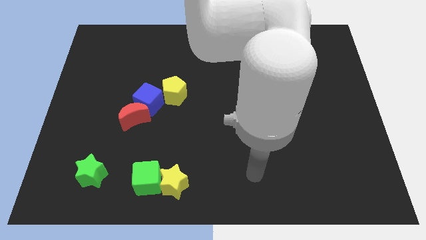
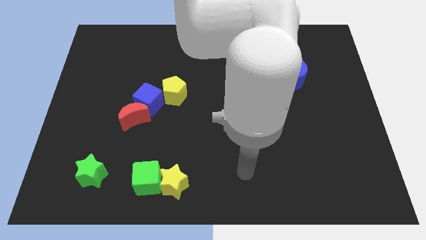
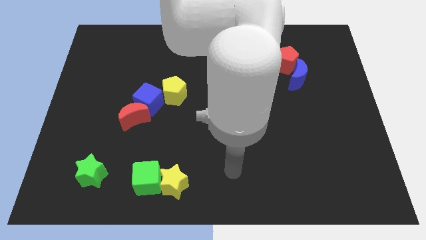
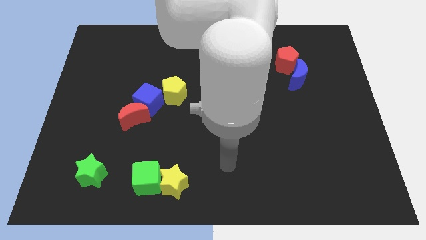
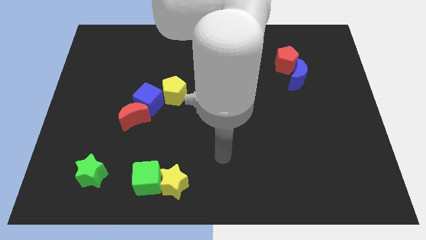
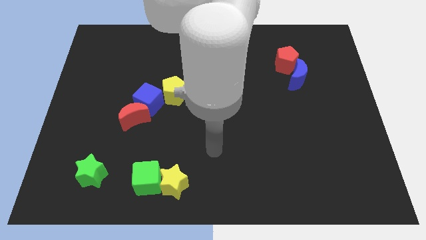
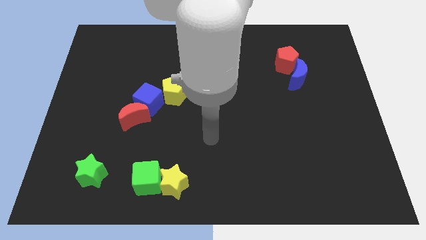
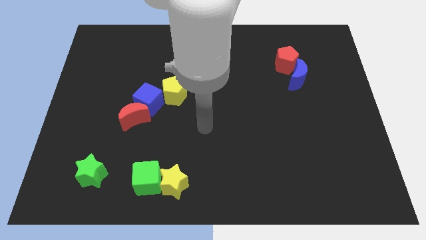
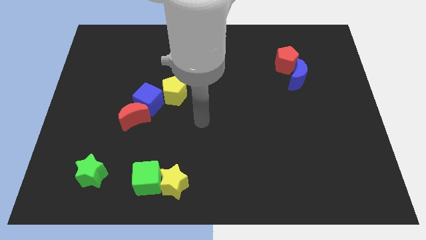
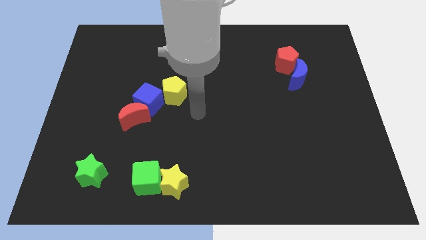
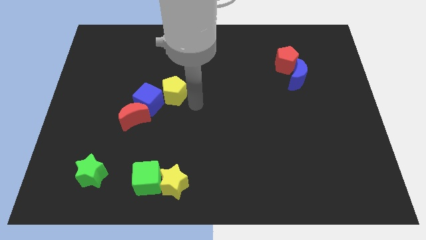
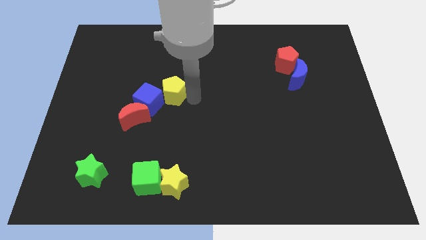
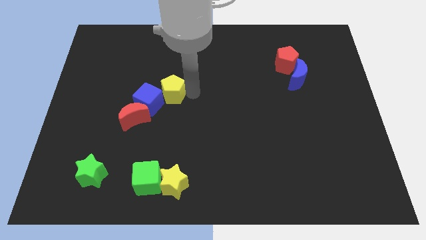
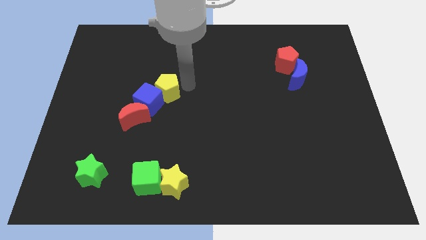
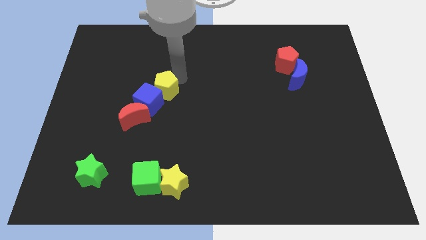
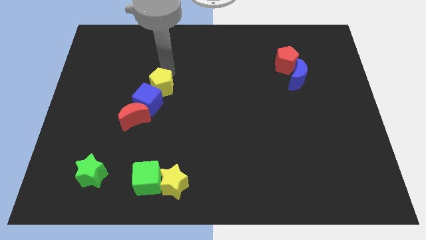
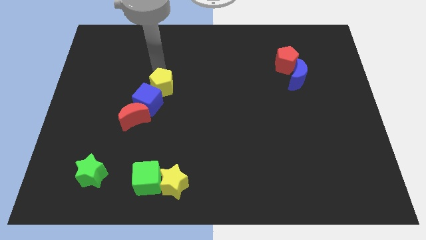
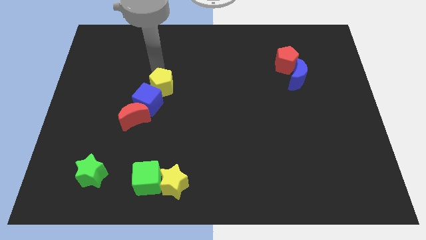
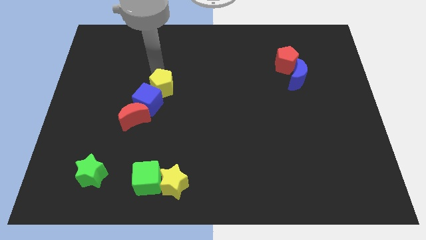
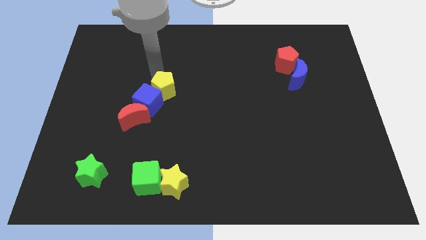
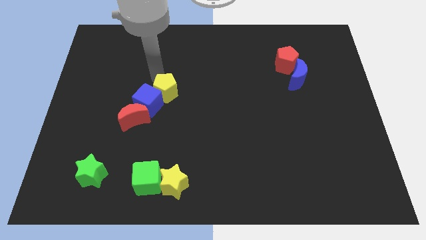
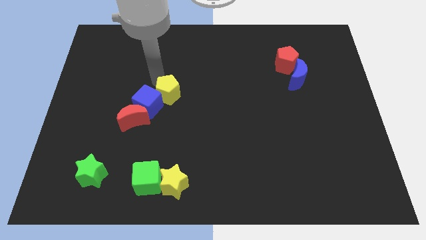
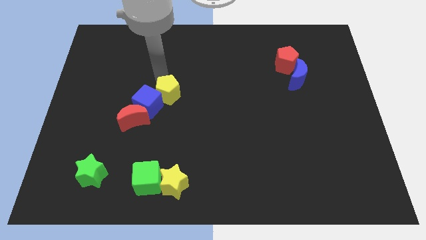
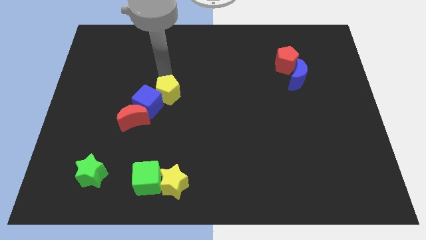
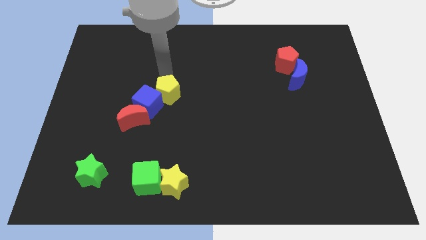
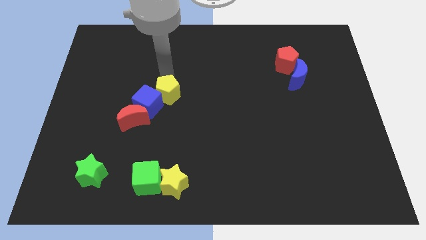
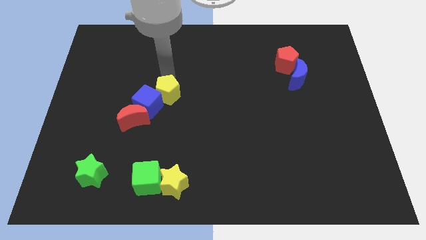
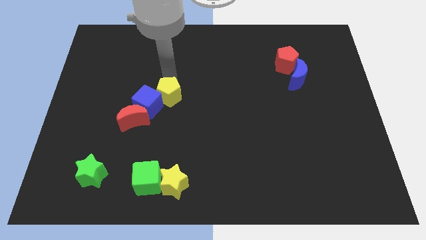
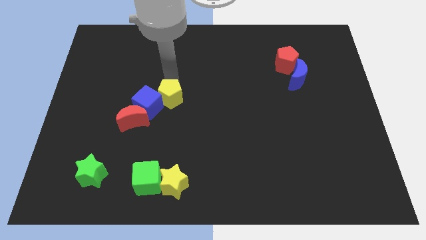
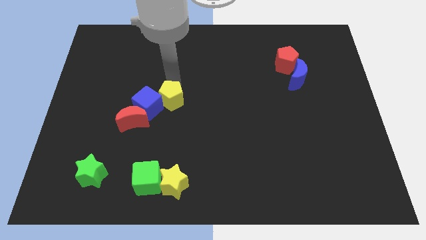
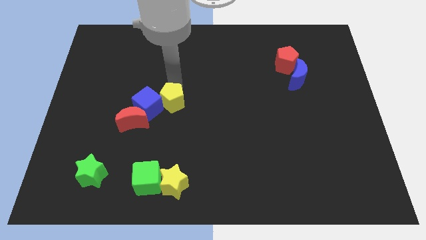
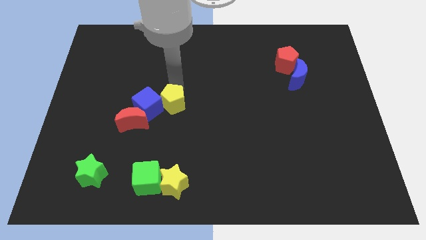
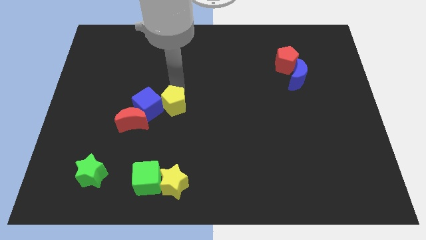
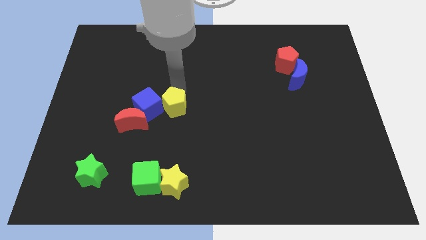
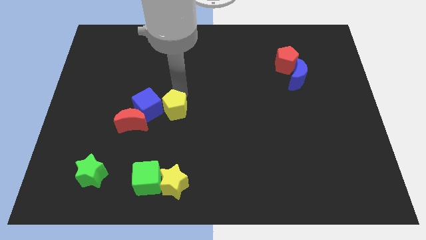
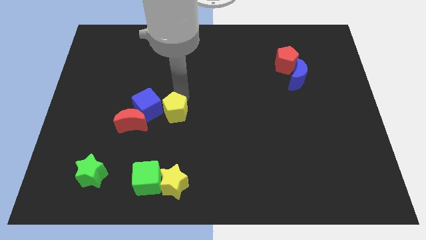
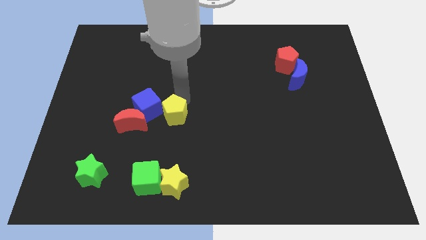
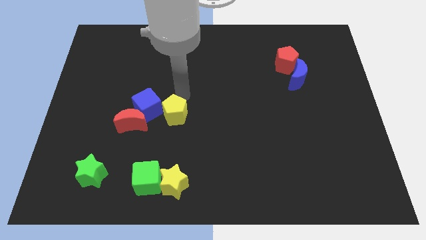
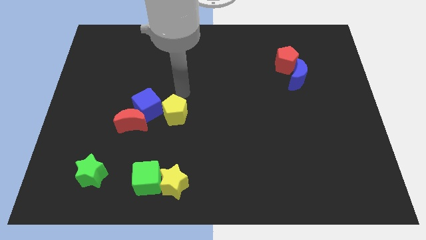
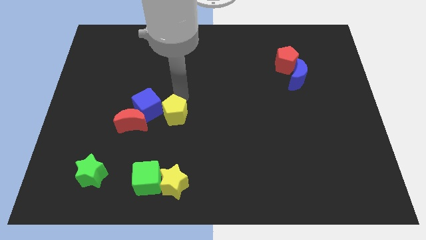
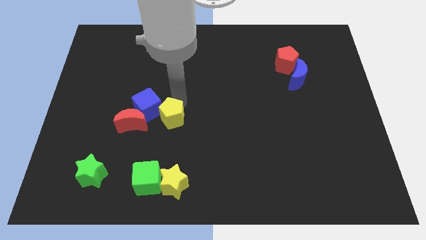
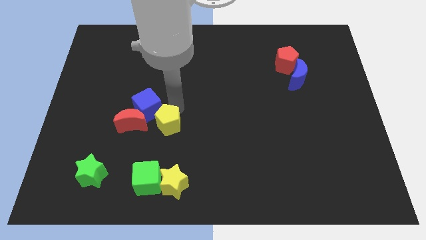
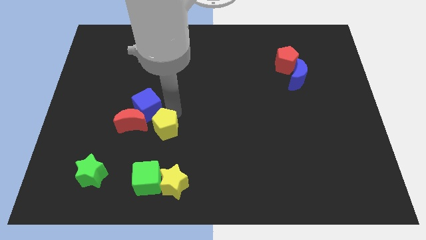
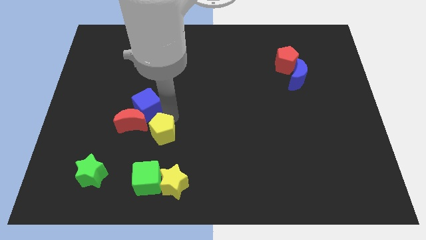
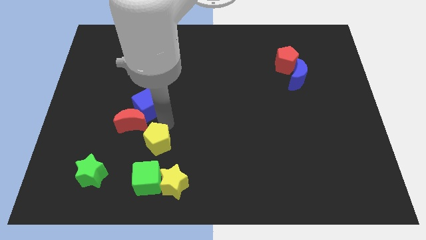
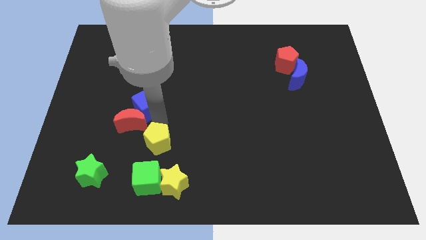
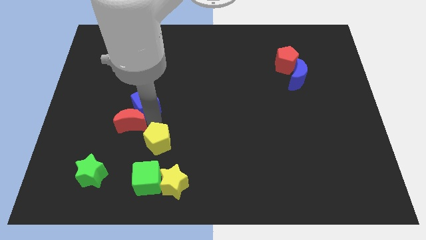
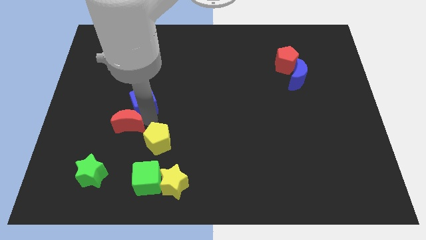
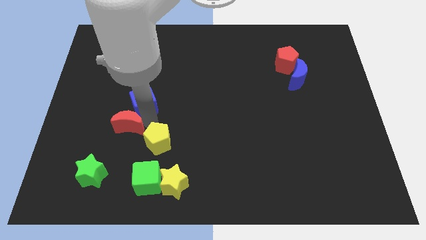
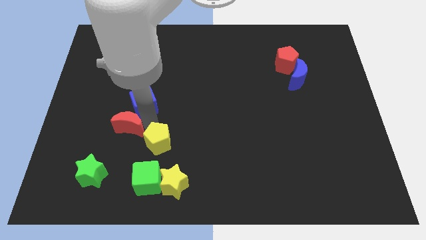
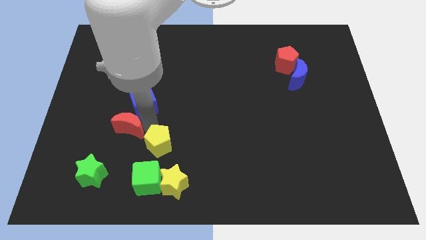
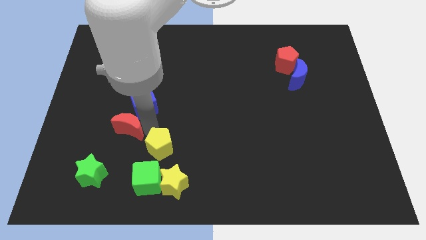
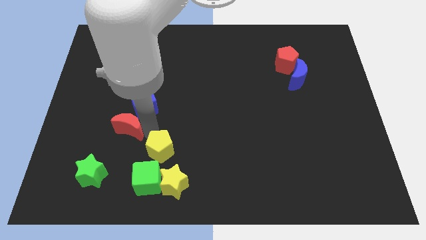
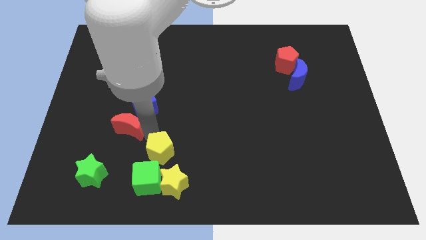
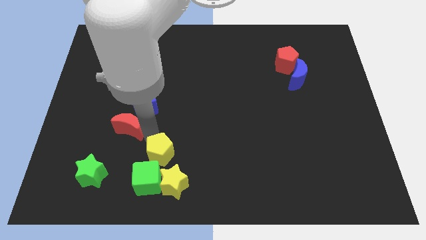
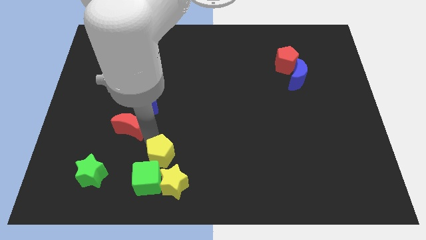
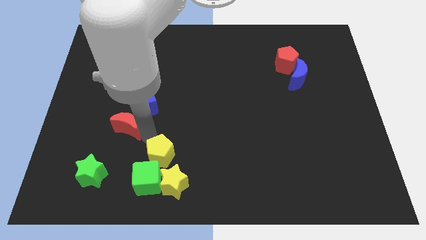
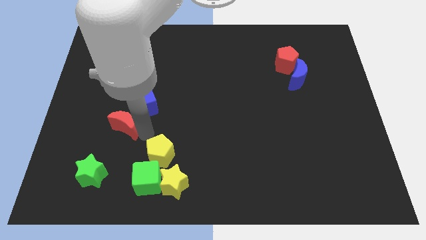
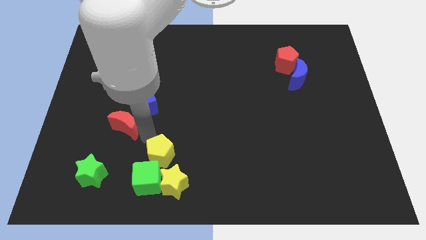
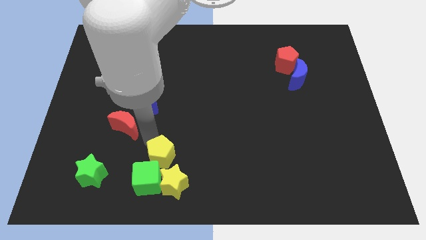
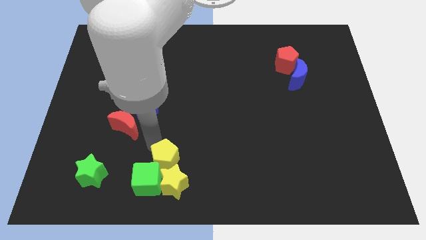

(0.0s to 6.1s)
push the yellow pentagon next to the yellow star

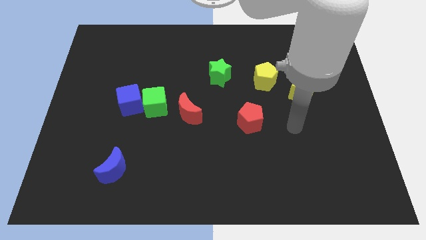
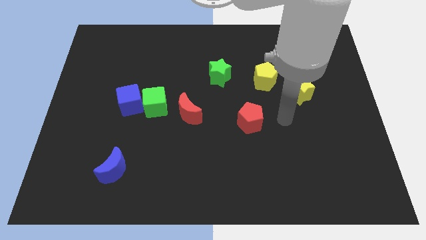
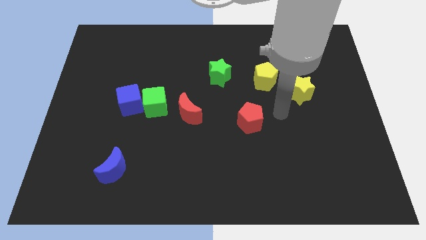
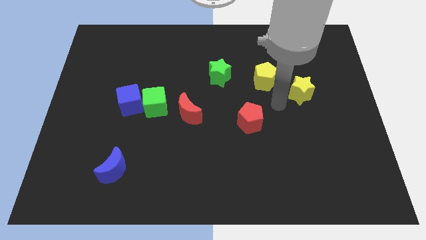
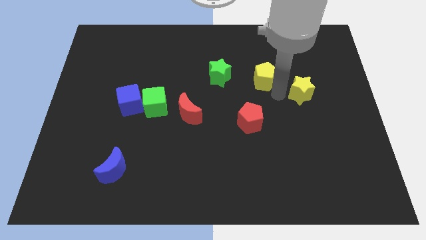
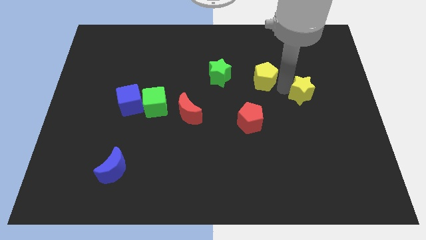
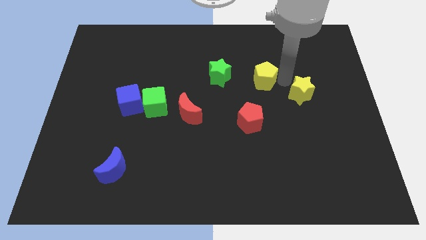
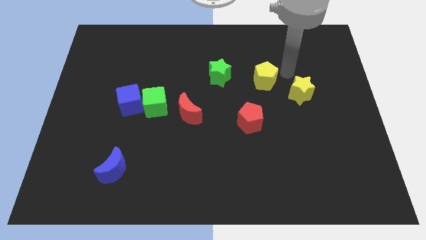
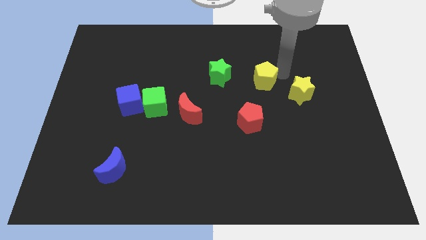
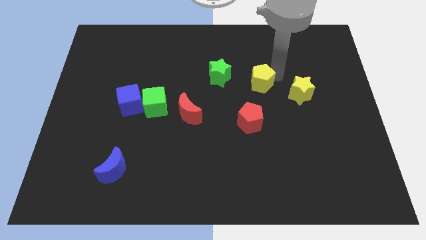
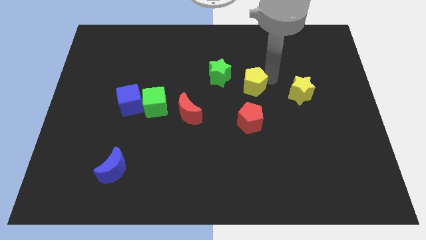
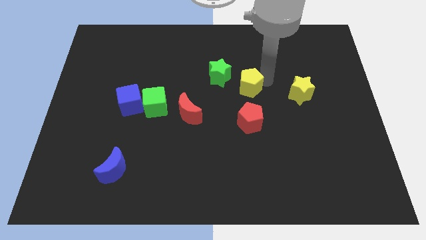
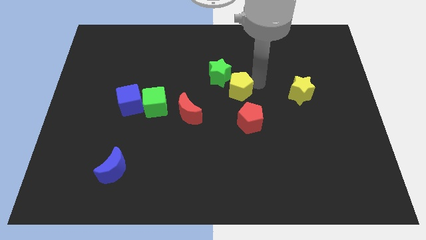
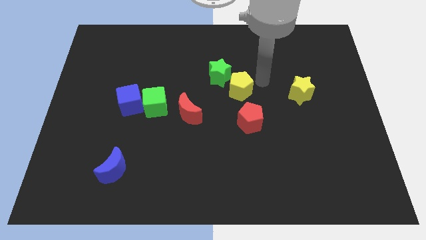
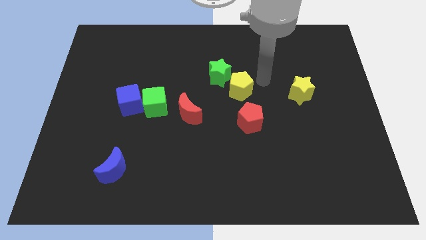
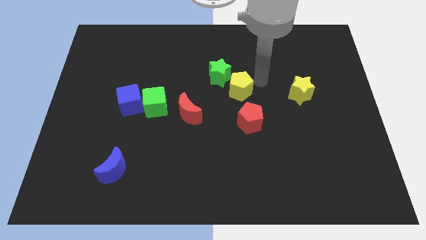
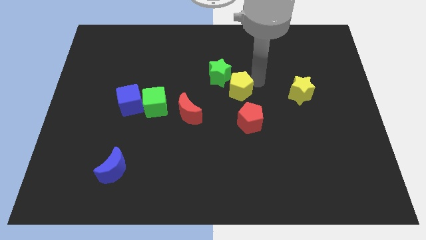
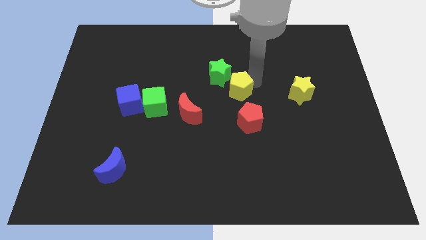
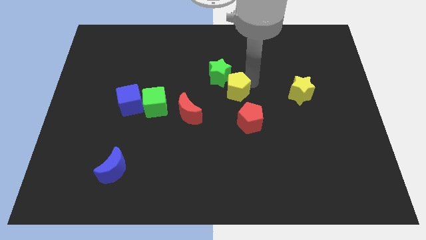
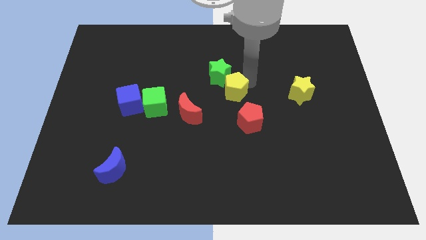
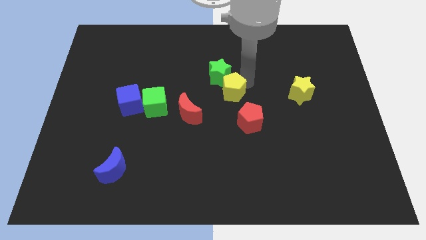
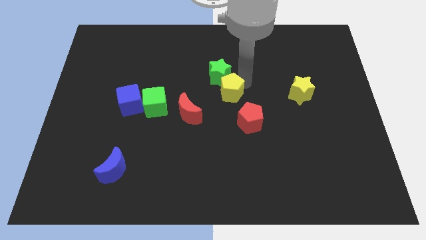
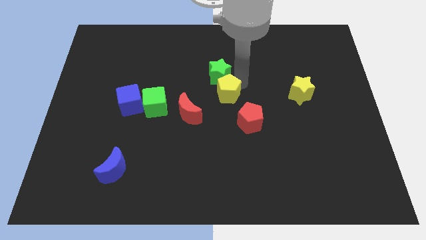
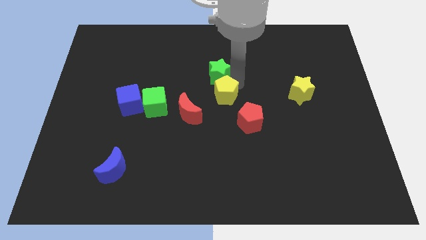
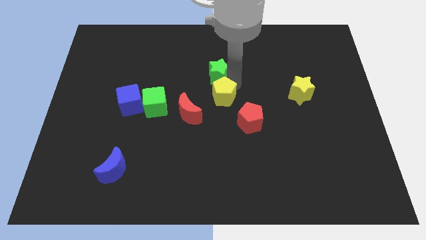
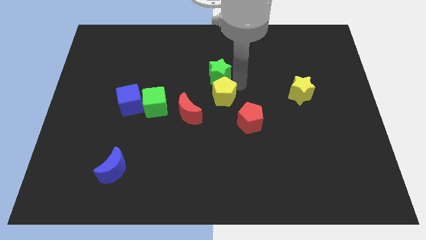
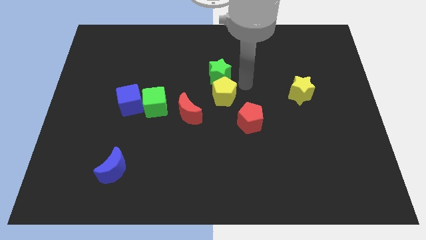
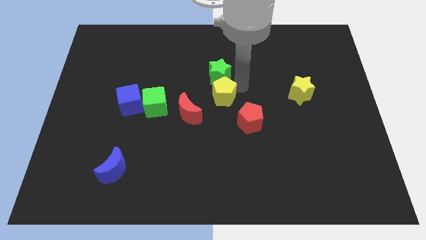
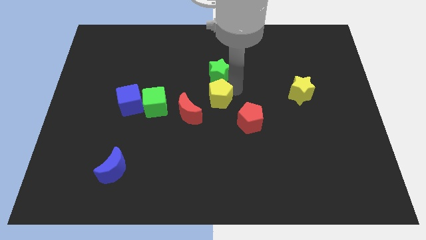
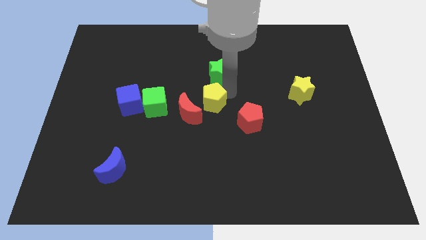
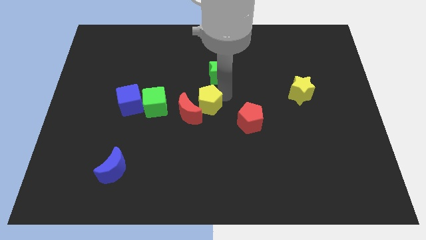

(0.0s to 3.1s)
put the yellow pentagon close to the red moon
